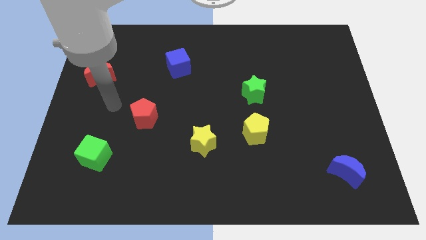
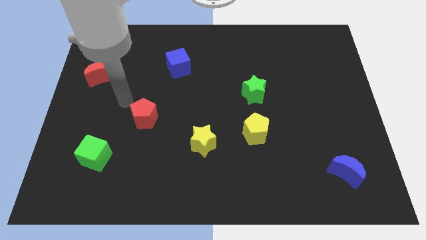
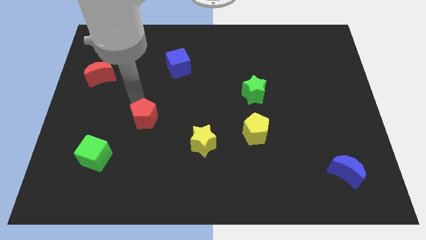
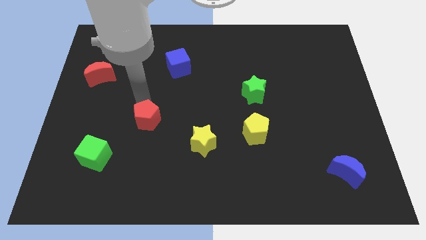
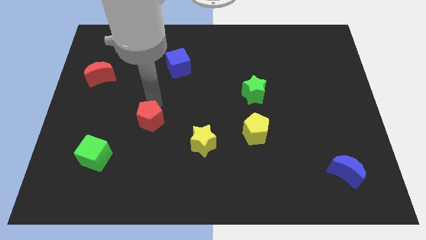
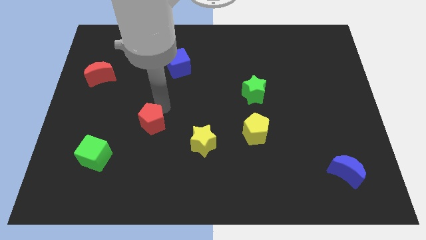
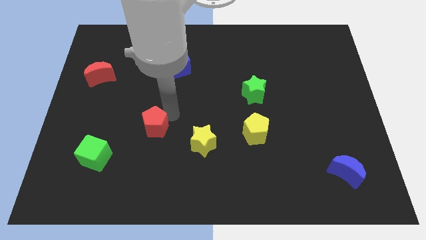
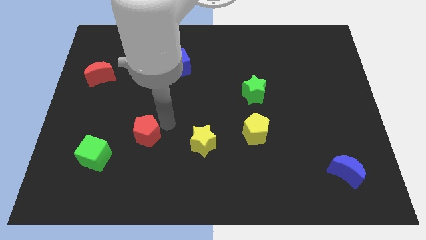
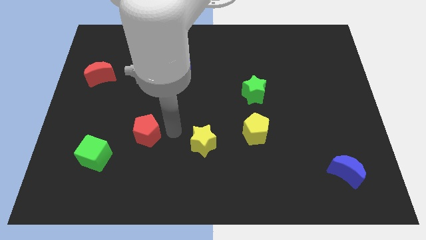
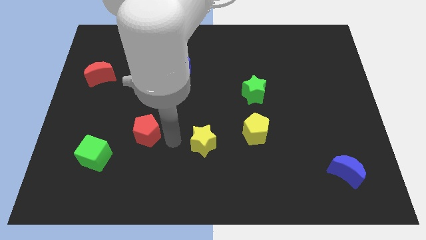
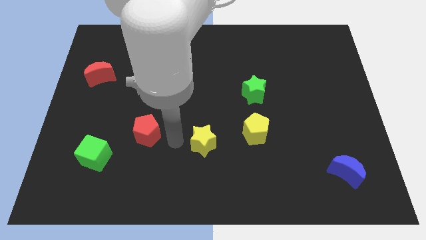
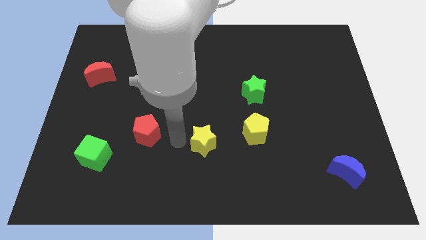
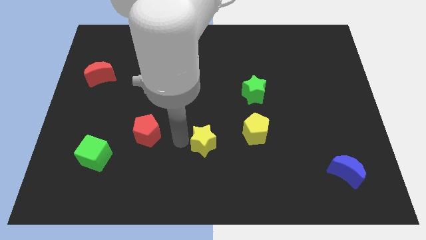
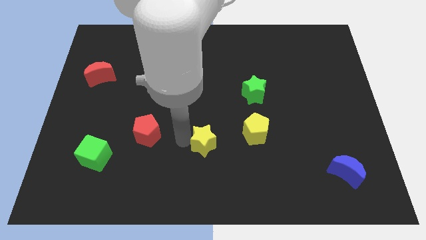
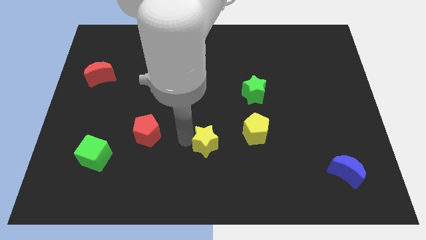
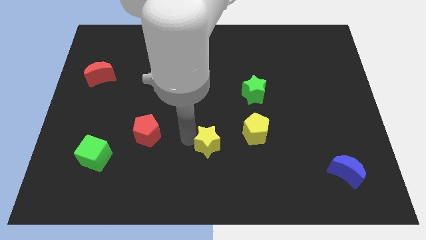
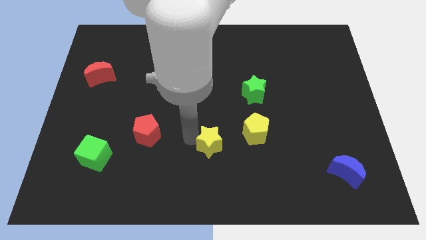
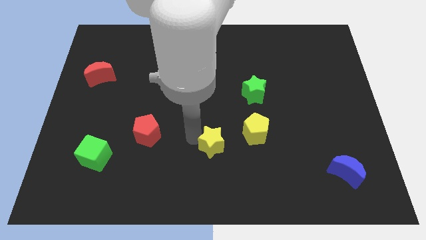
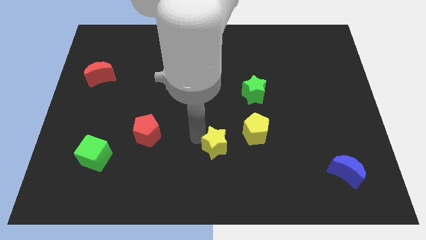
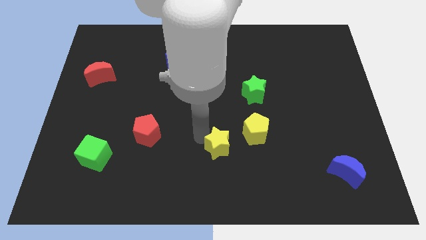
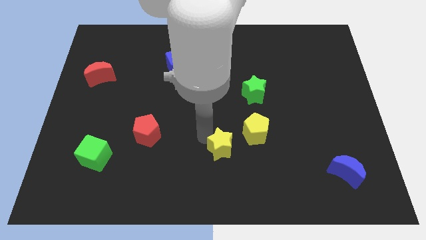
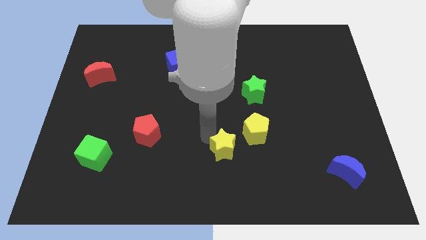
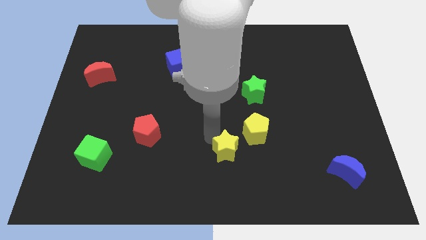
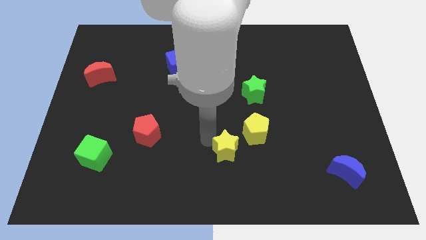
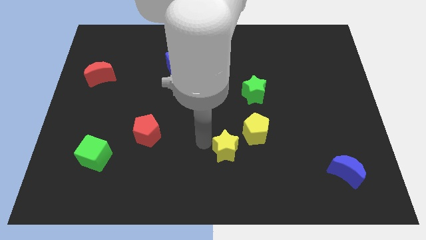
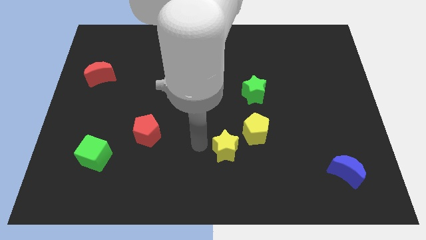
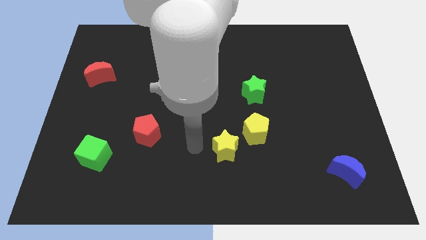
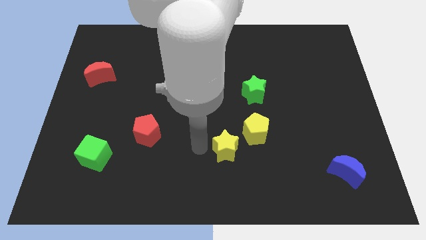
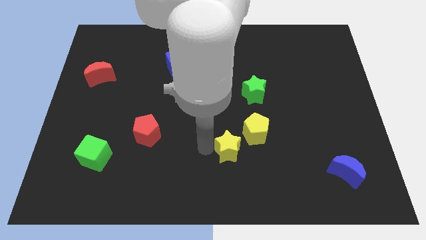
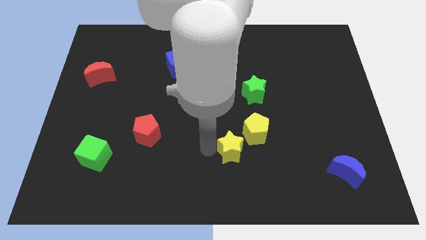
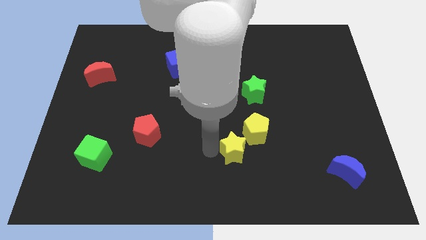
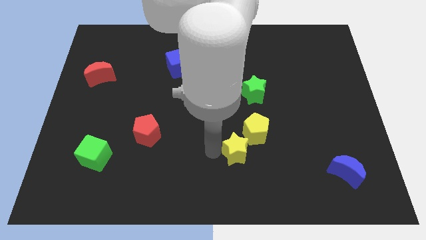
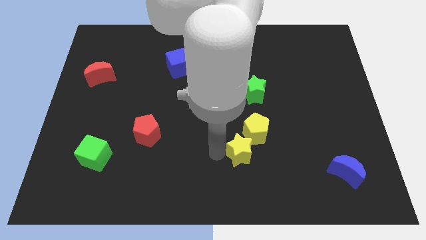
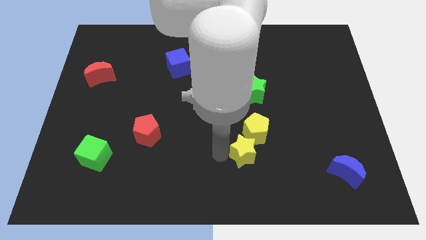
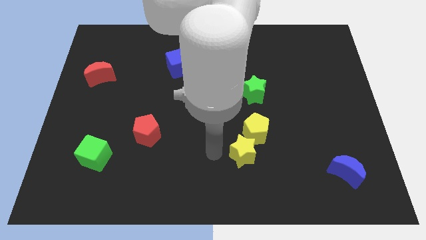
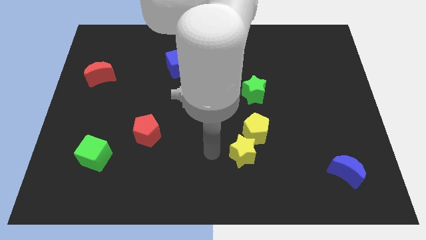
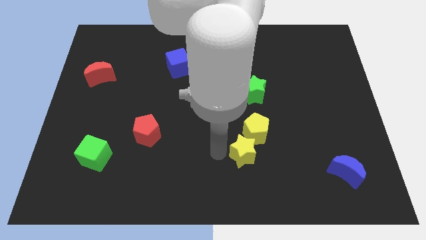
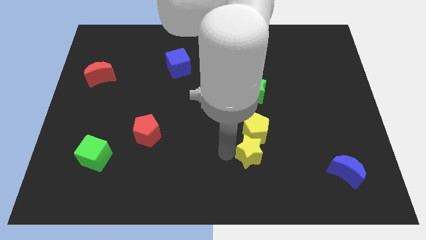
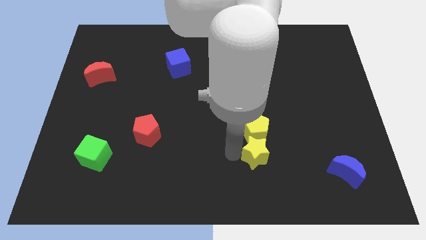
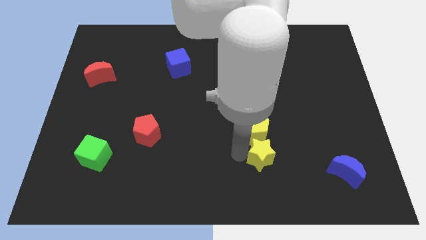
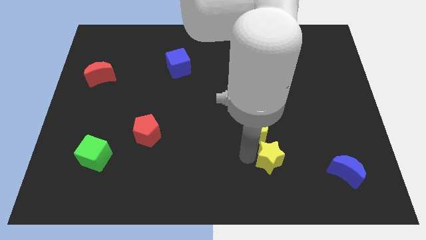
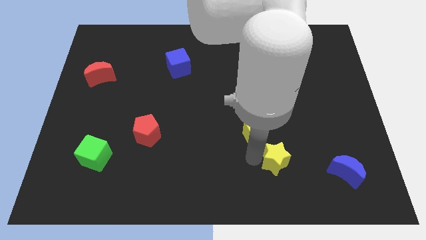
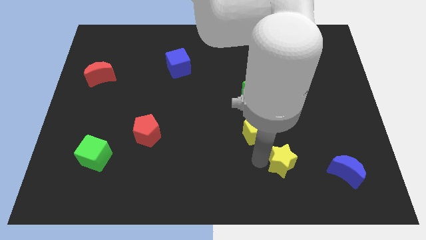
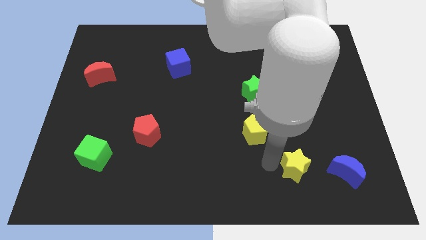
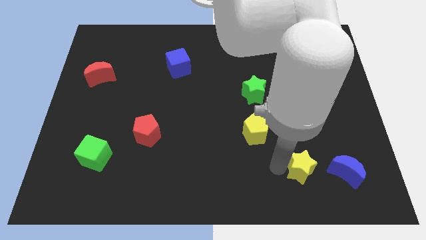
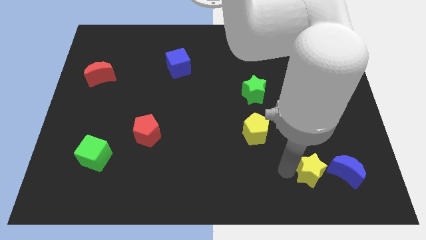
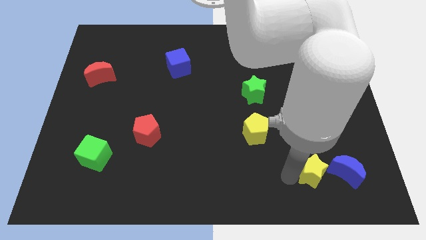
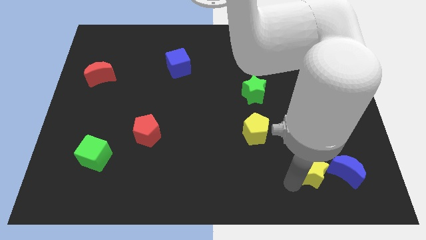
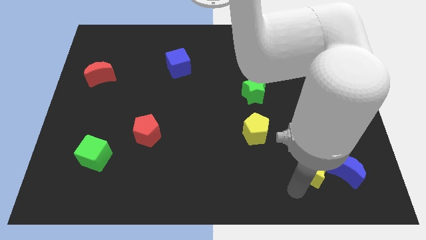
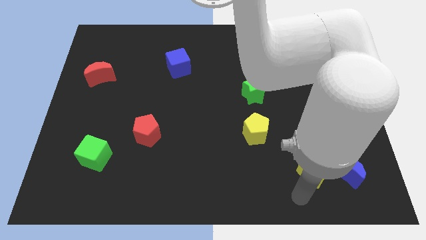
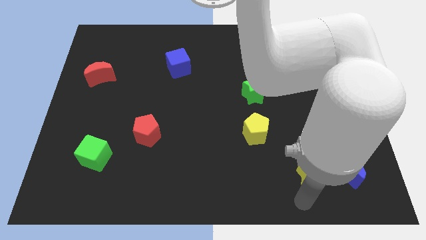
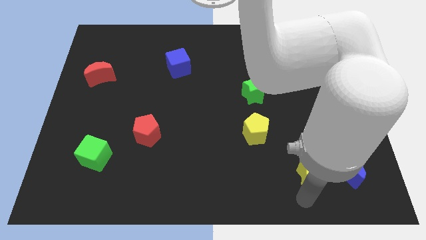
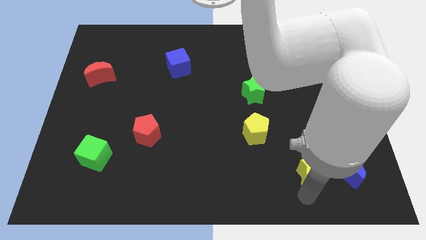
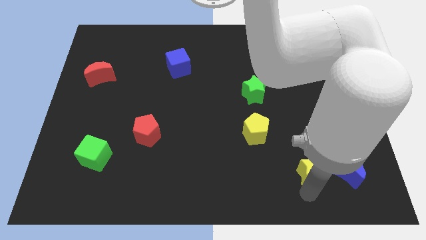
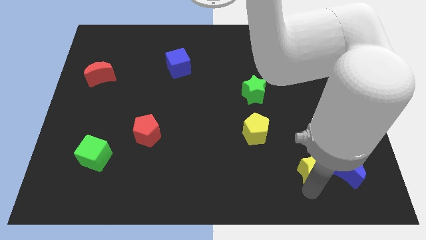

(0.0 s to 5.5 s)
push the yellow star to the top left of the blue moon

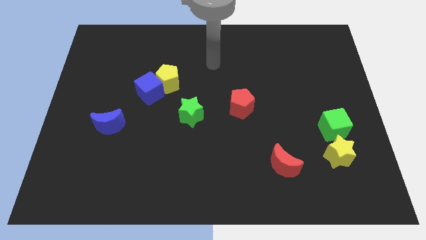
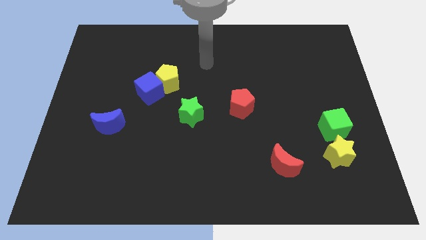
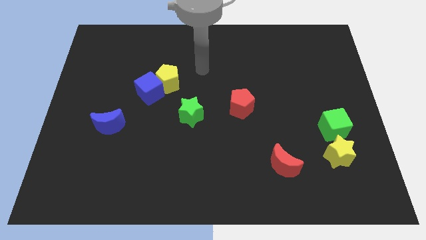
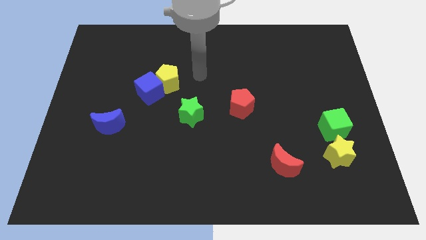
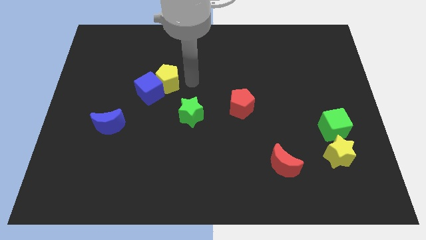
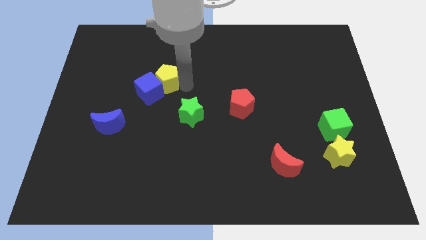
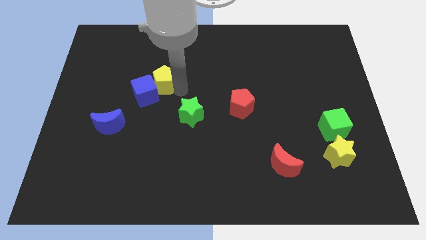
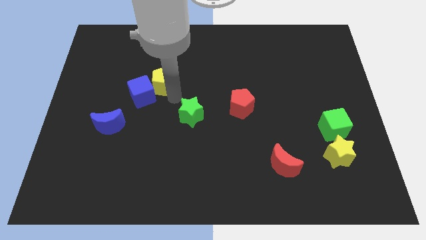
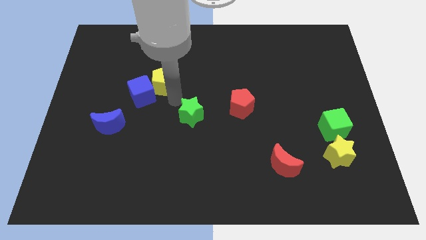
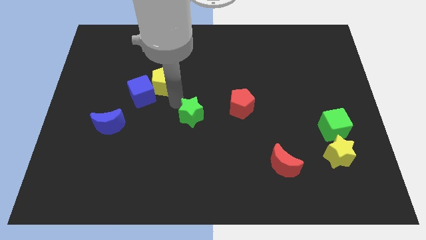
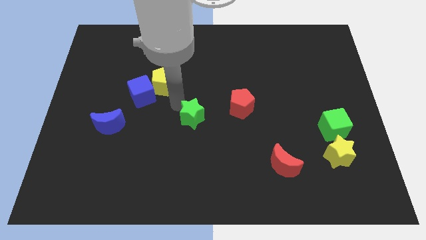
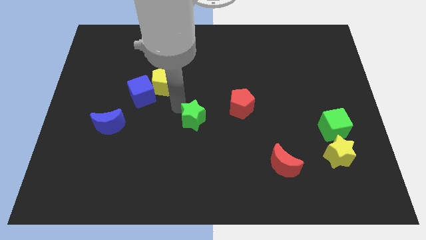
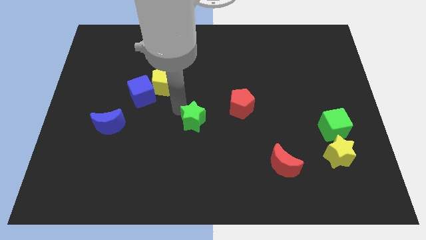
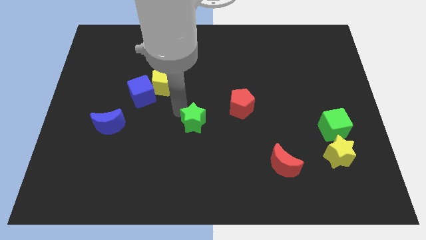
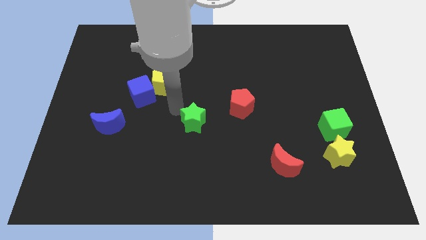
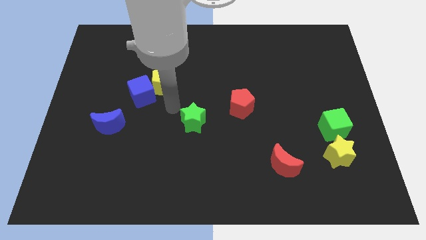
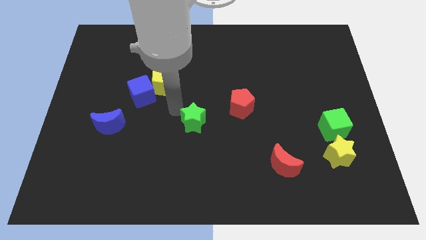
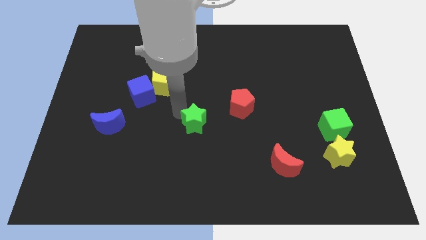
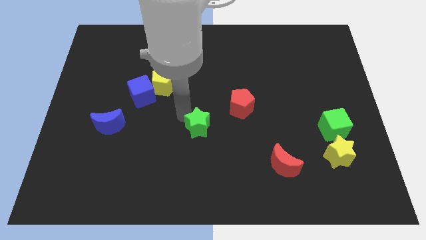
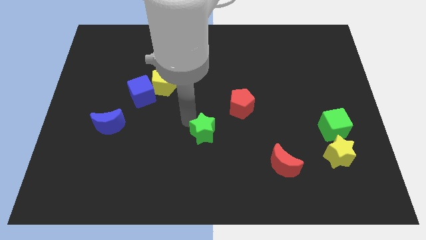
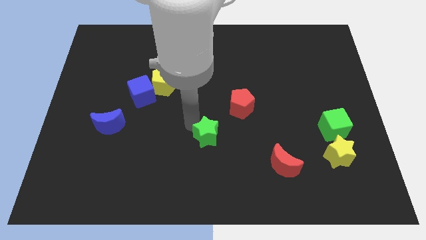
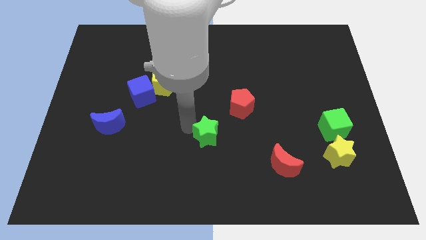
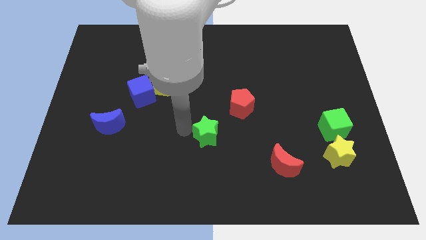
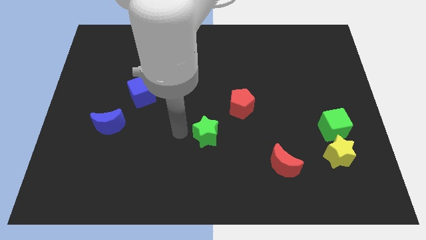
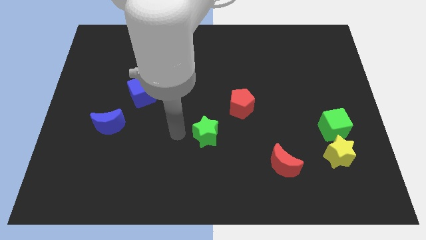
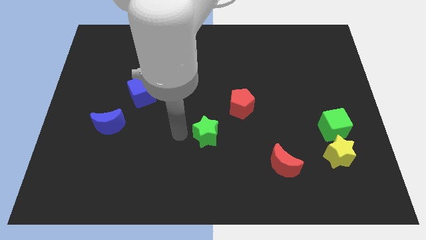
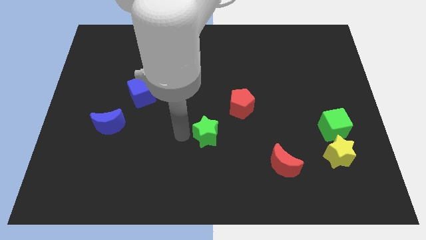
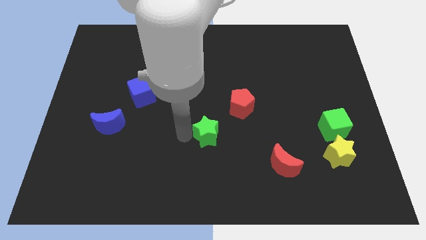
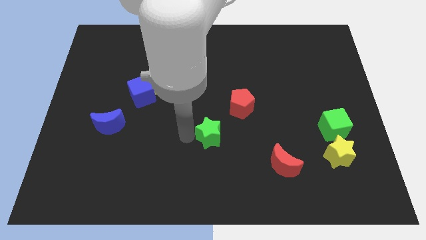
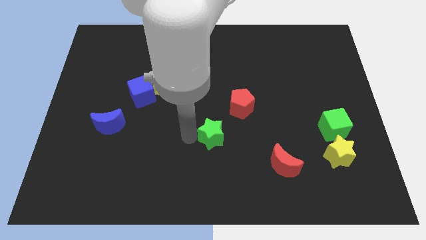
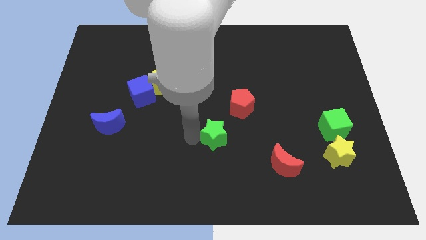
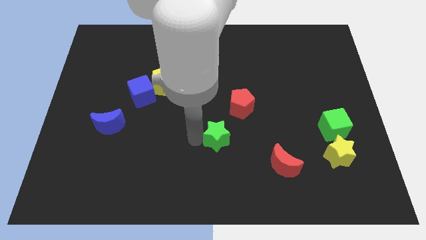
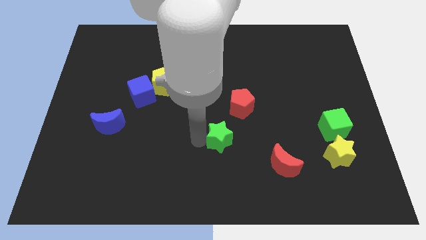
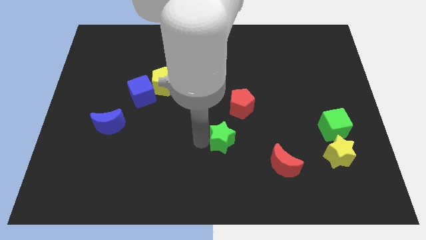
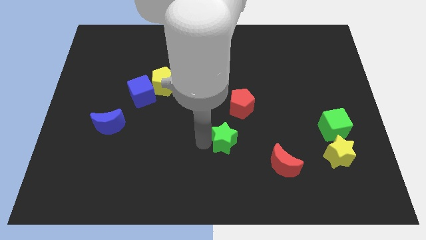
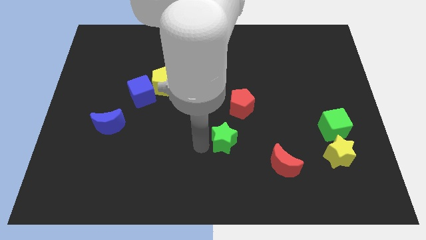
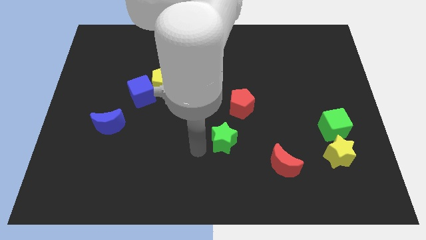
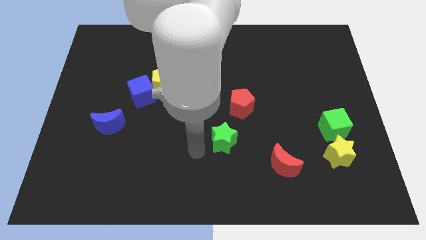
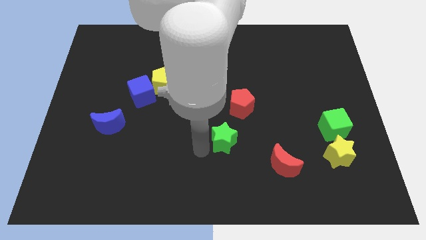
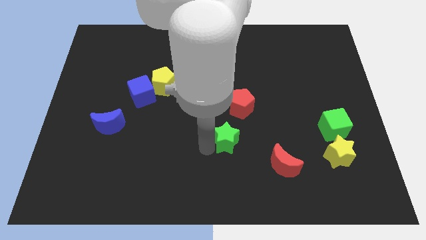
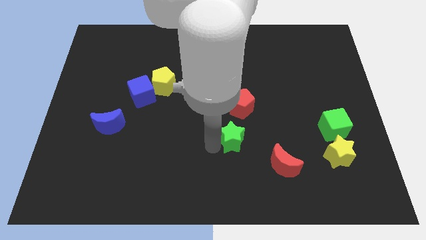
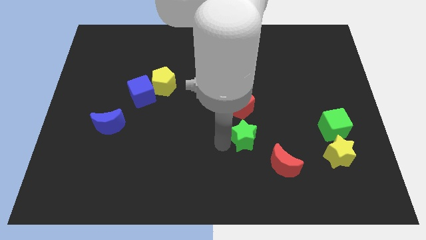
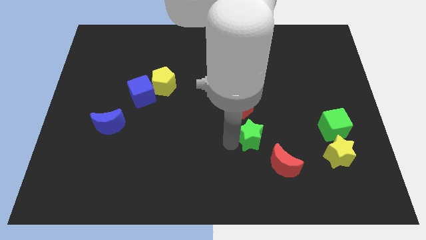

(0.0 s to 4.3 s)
put the green star diagonally down and to the right of the red pentagon
